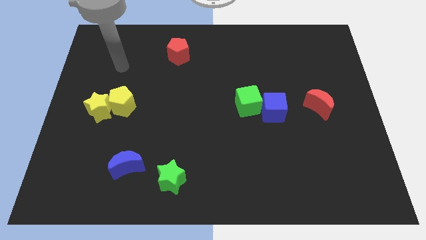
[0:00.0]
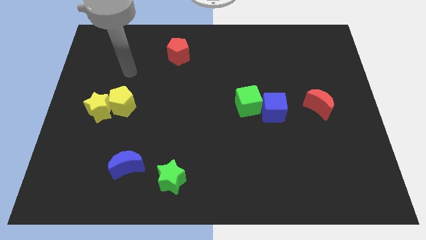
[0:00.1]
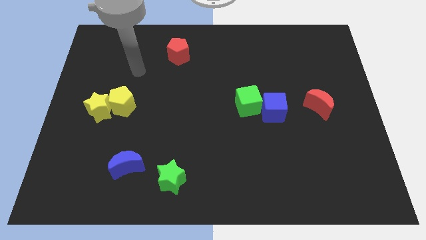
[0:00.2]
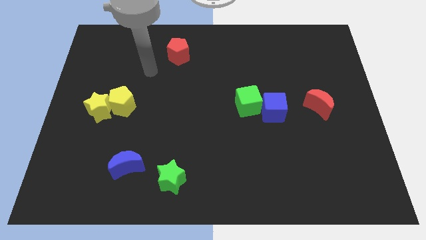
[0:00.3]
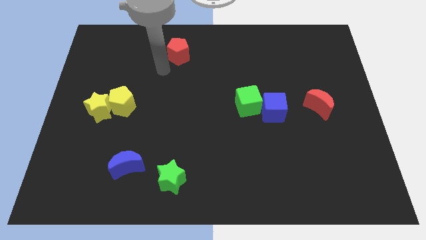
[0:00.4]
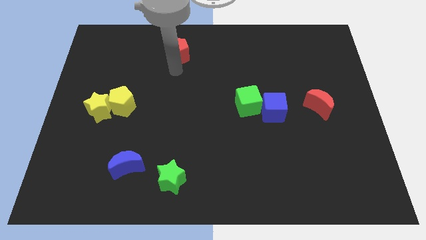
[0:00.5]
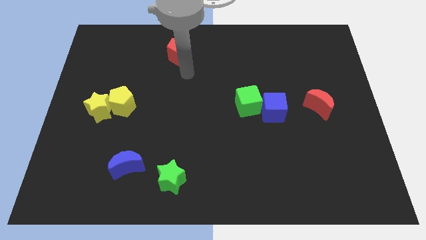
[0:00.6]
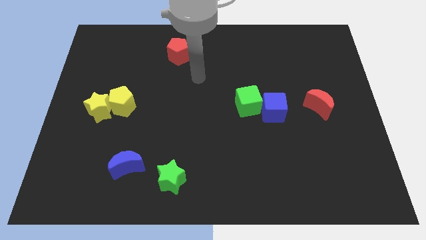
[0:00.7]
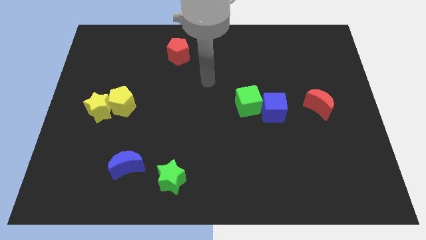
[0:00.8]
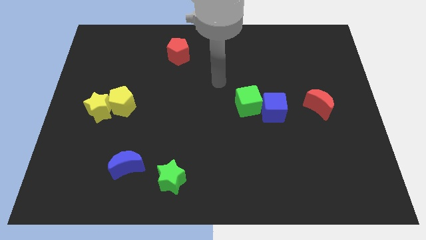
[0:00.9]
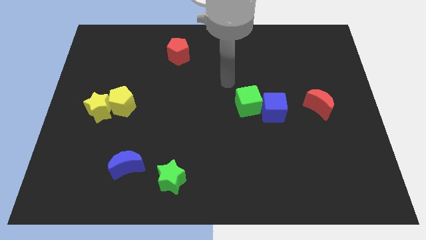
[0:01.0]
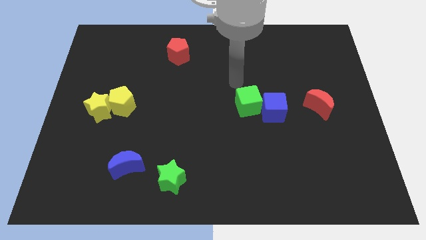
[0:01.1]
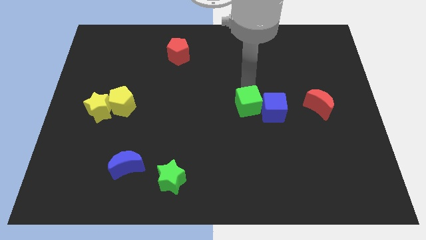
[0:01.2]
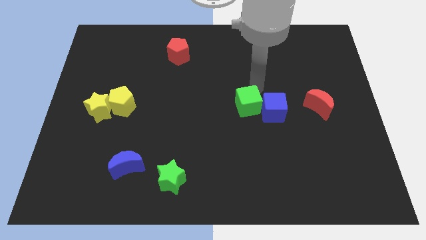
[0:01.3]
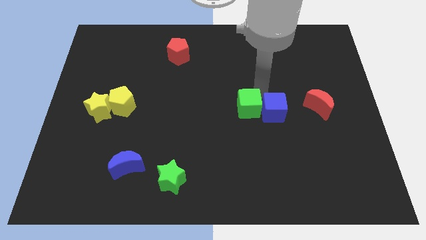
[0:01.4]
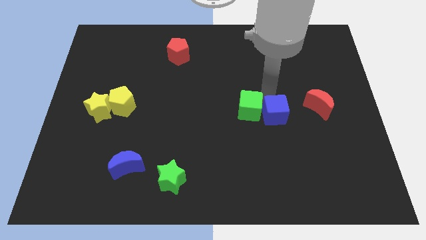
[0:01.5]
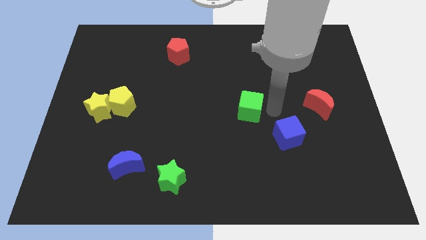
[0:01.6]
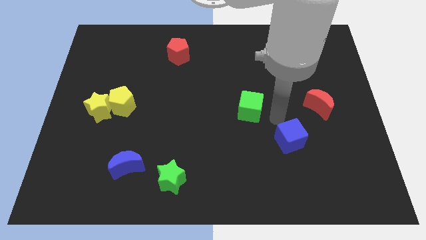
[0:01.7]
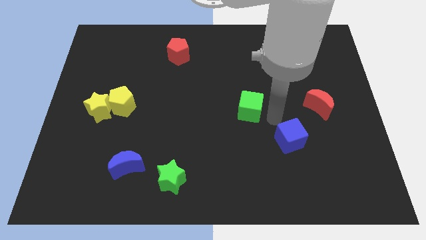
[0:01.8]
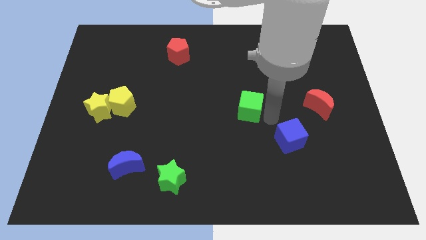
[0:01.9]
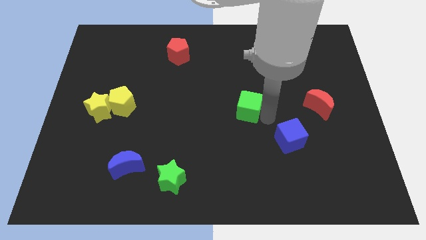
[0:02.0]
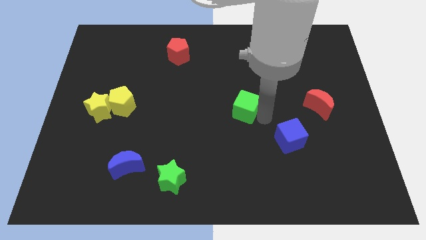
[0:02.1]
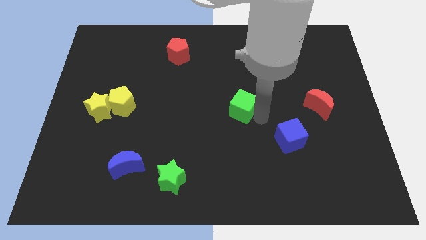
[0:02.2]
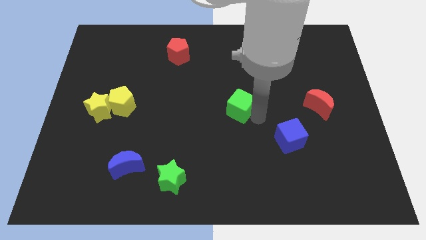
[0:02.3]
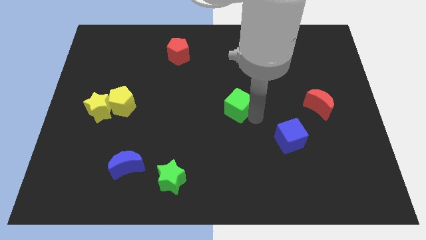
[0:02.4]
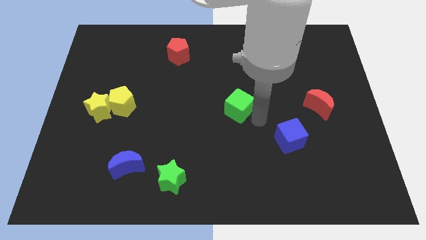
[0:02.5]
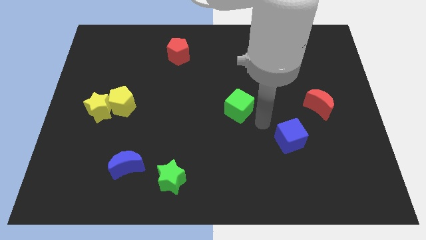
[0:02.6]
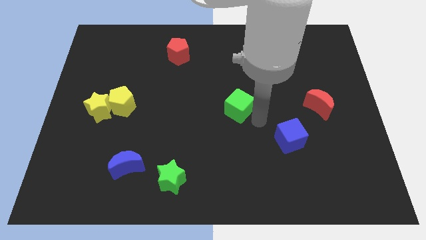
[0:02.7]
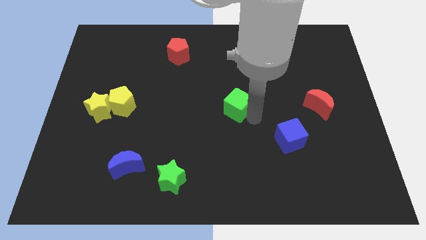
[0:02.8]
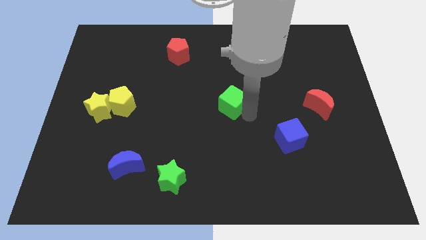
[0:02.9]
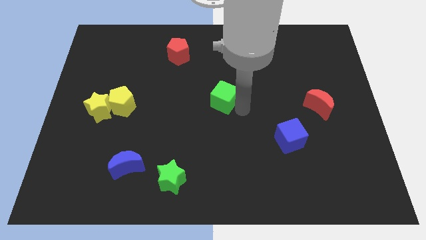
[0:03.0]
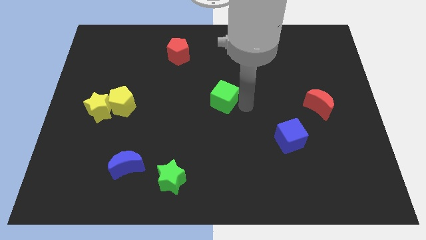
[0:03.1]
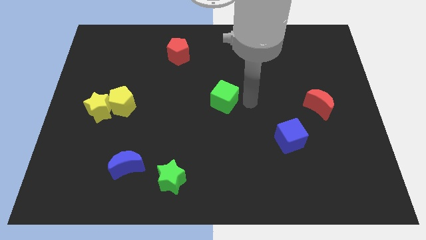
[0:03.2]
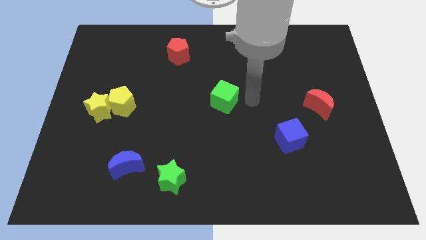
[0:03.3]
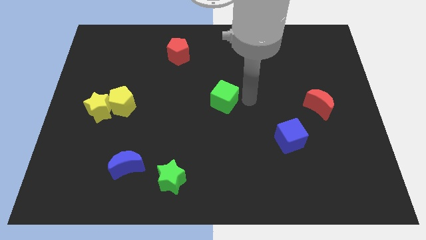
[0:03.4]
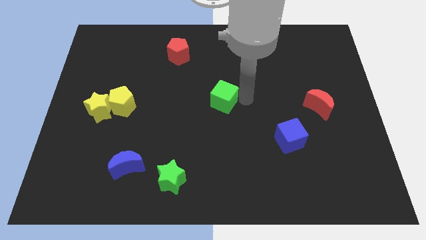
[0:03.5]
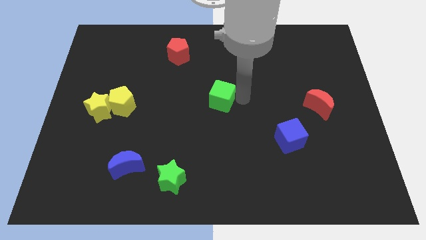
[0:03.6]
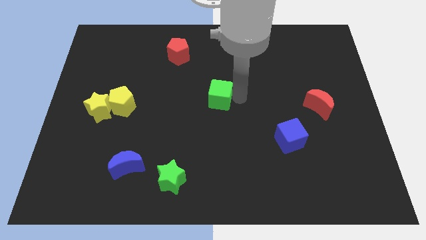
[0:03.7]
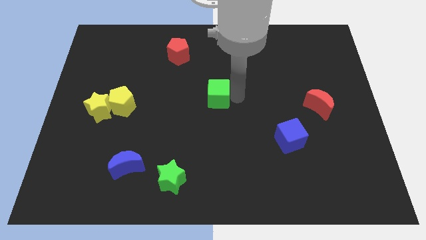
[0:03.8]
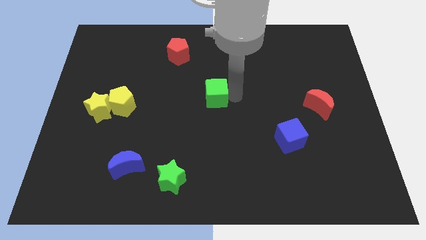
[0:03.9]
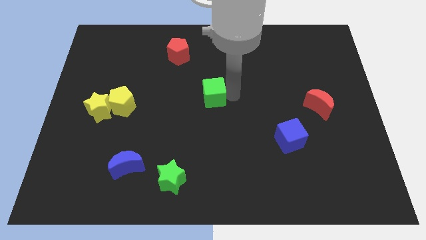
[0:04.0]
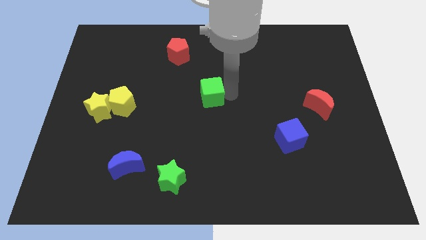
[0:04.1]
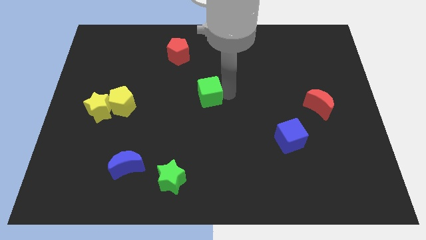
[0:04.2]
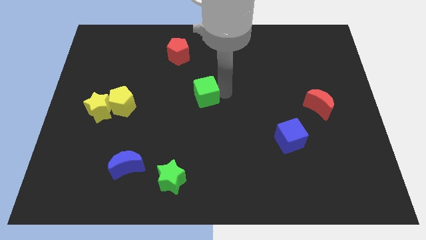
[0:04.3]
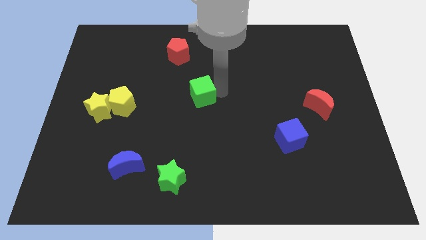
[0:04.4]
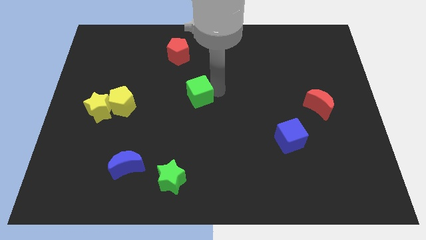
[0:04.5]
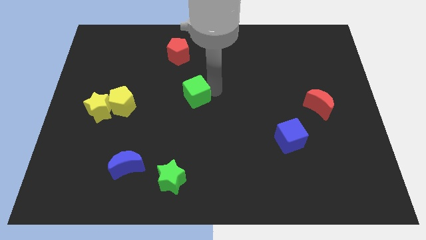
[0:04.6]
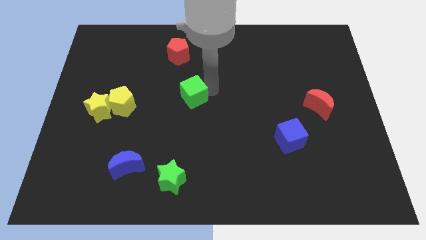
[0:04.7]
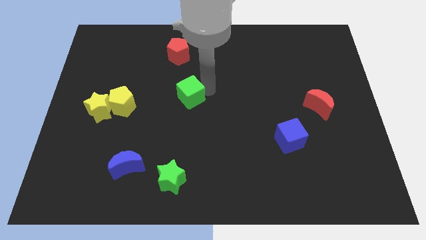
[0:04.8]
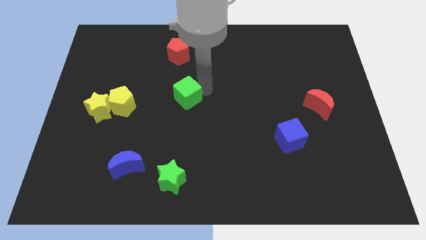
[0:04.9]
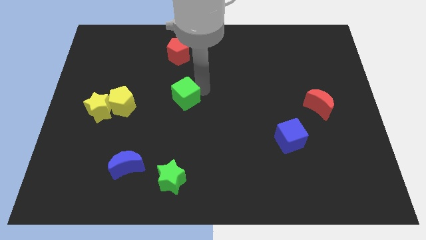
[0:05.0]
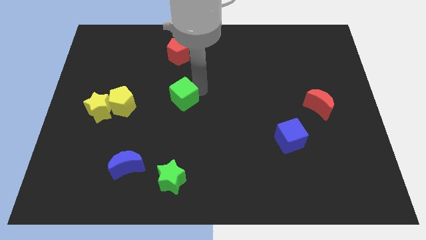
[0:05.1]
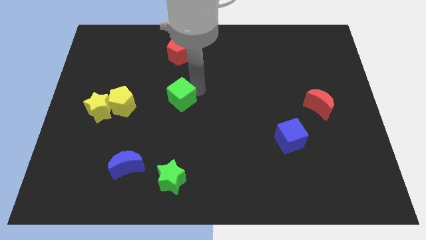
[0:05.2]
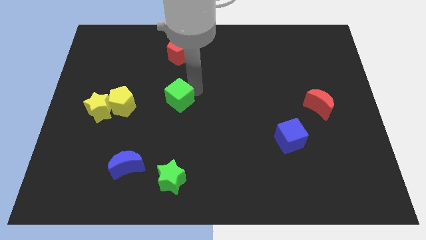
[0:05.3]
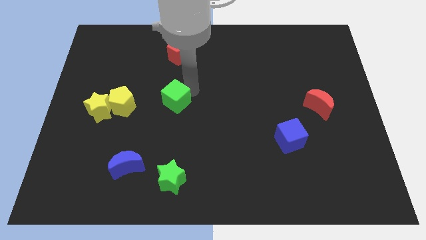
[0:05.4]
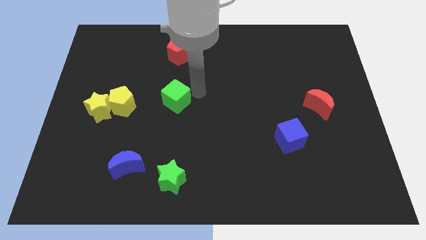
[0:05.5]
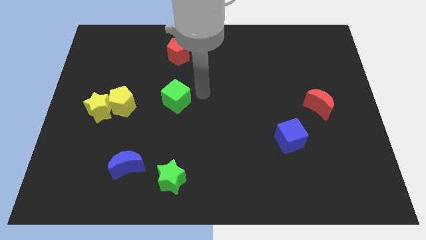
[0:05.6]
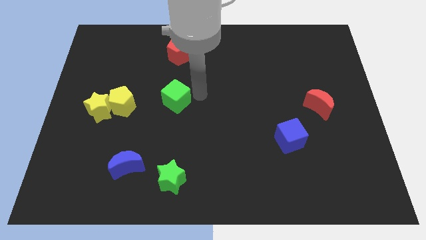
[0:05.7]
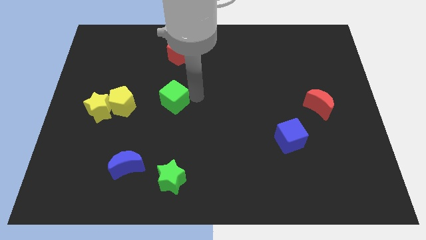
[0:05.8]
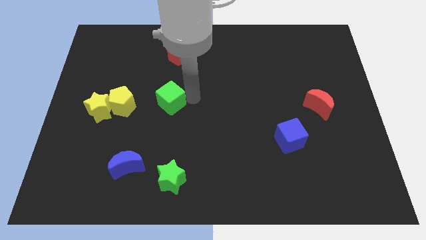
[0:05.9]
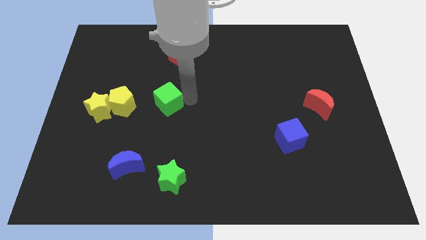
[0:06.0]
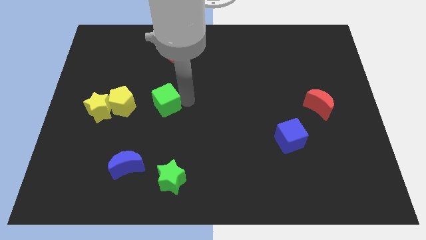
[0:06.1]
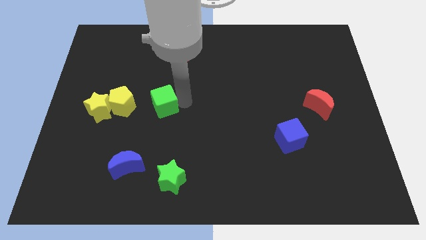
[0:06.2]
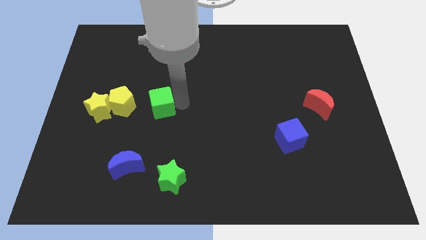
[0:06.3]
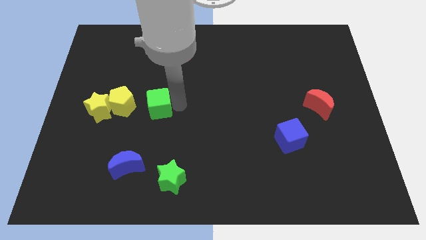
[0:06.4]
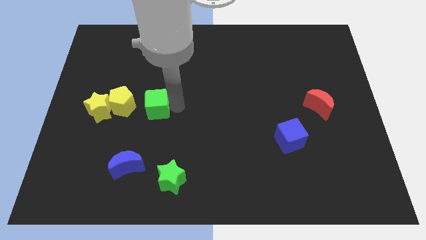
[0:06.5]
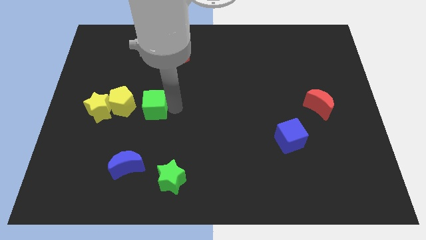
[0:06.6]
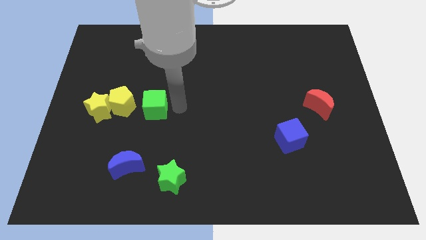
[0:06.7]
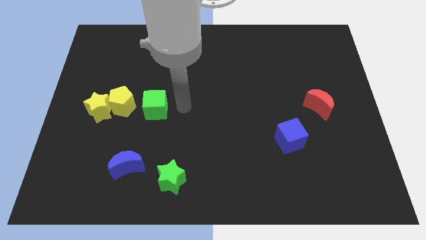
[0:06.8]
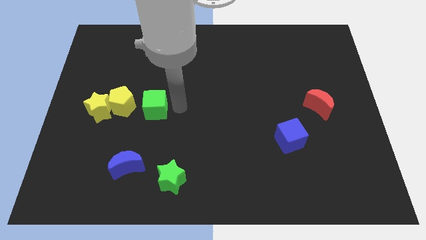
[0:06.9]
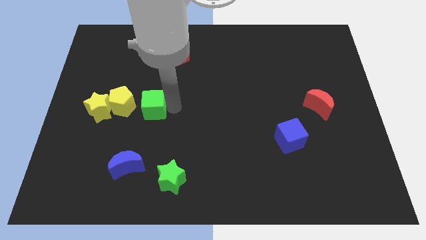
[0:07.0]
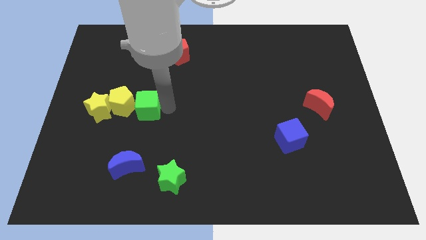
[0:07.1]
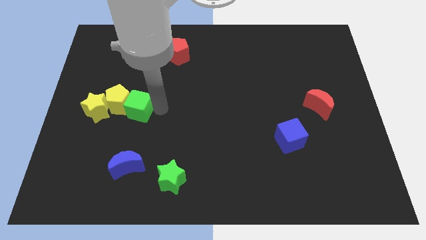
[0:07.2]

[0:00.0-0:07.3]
push the green cube to the yellow pentagon
